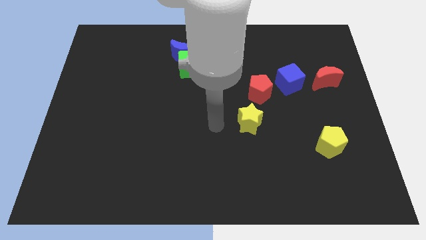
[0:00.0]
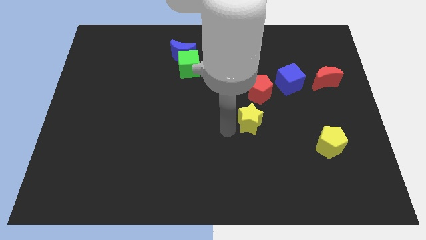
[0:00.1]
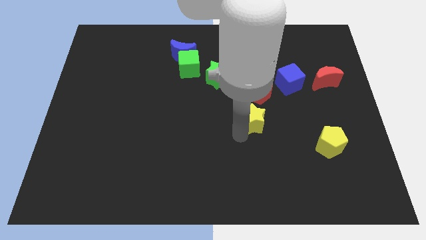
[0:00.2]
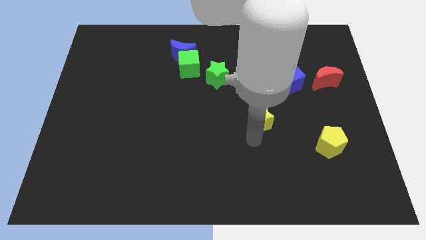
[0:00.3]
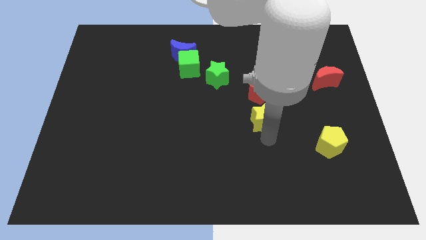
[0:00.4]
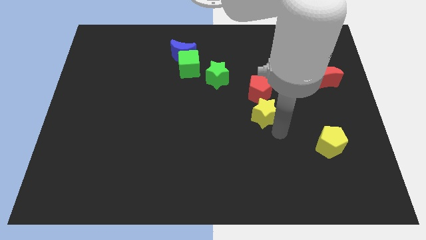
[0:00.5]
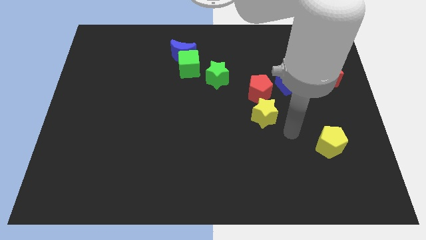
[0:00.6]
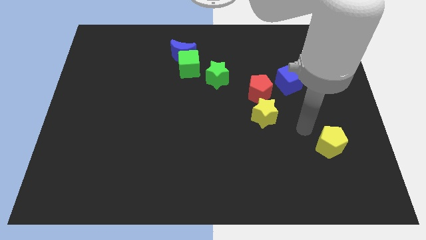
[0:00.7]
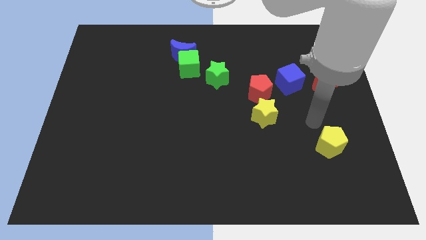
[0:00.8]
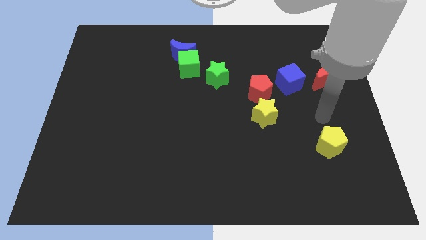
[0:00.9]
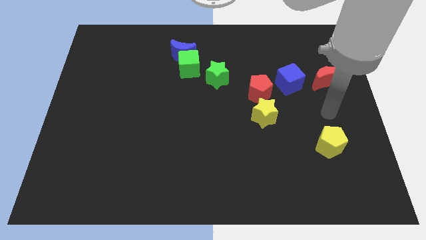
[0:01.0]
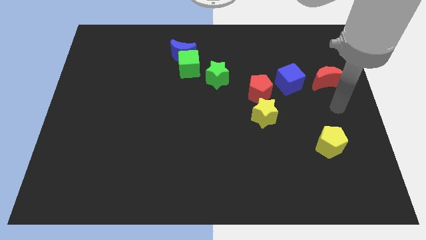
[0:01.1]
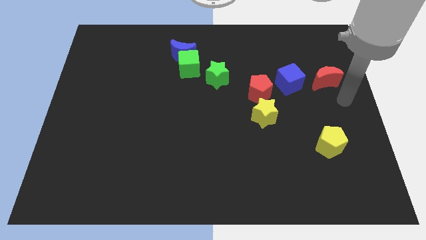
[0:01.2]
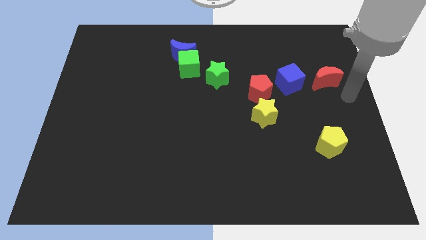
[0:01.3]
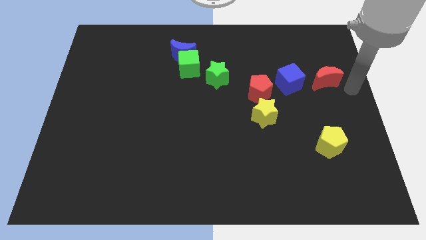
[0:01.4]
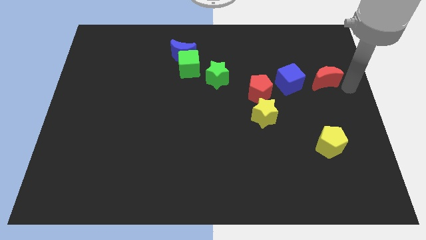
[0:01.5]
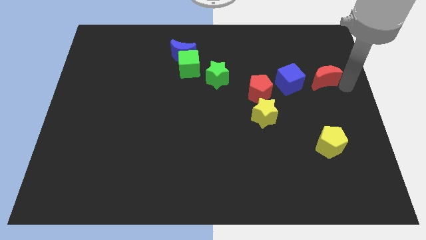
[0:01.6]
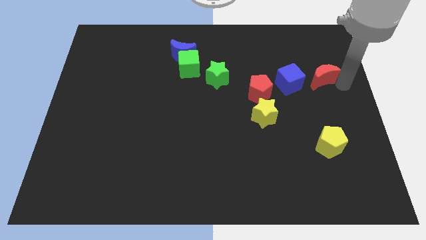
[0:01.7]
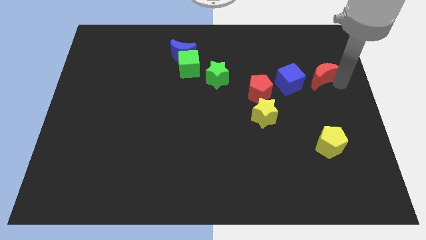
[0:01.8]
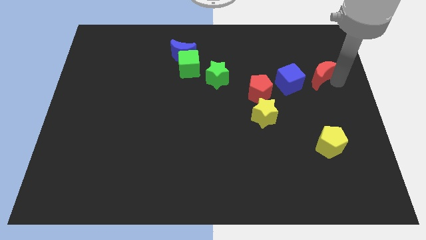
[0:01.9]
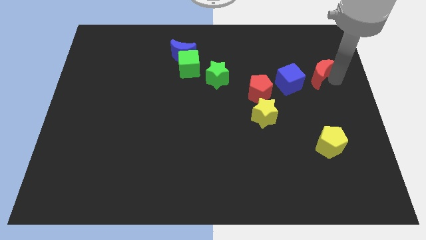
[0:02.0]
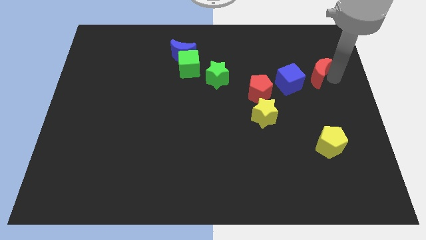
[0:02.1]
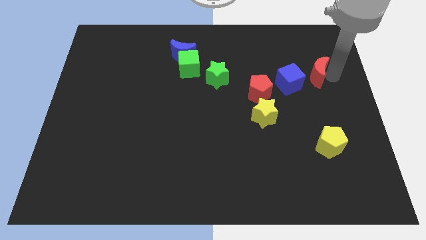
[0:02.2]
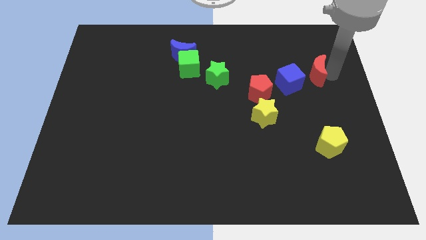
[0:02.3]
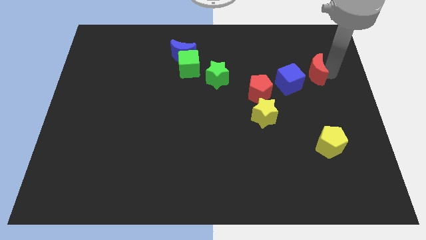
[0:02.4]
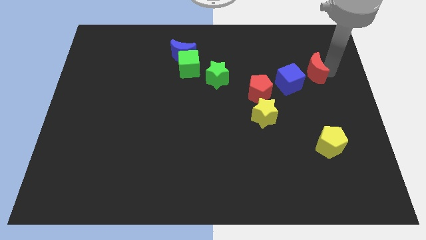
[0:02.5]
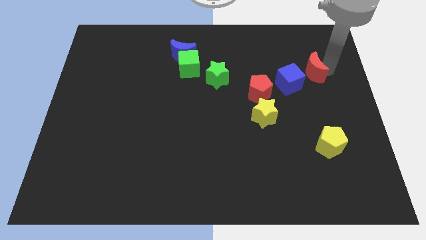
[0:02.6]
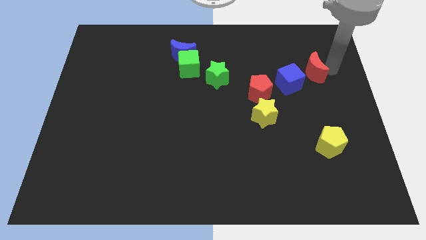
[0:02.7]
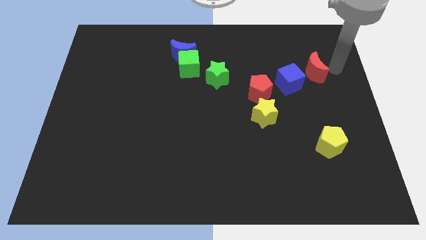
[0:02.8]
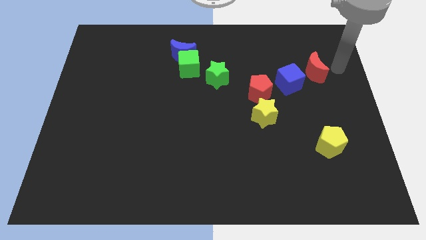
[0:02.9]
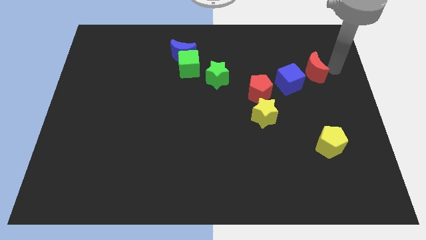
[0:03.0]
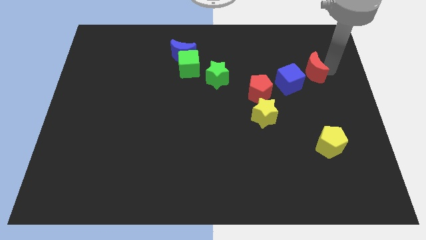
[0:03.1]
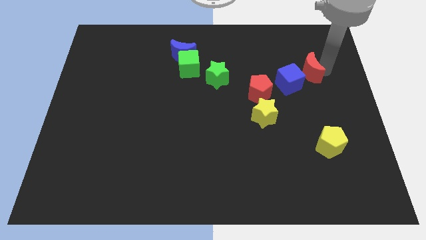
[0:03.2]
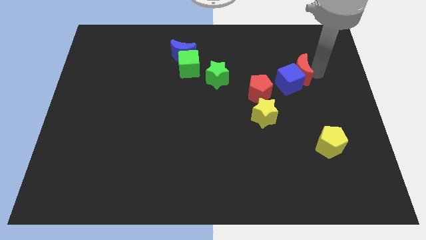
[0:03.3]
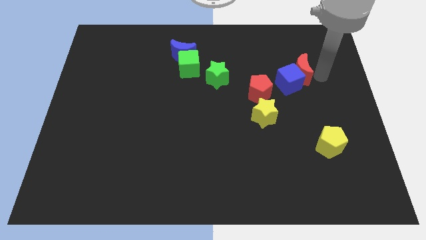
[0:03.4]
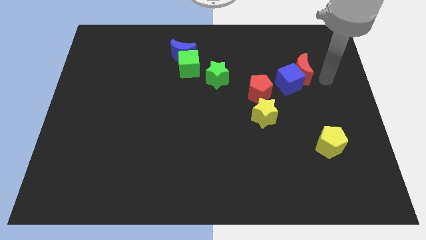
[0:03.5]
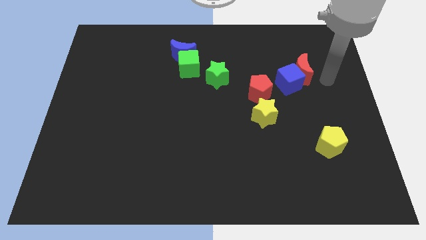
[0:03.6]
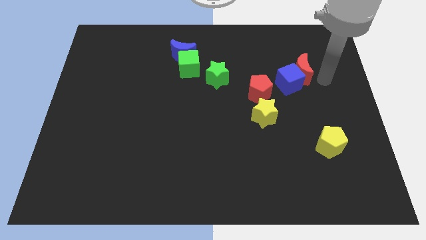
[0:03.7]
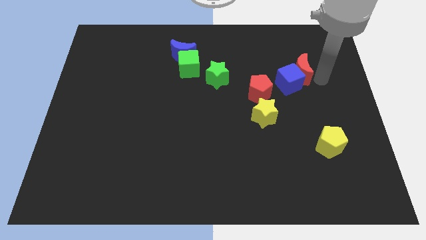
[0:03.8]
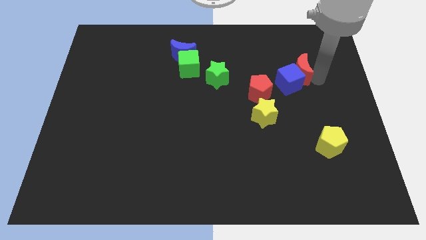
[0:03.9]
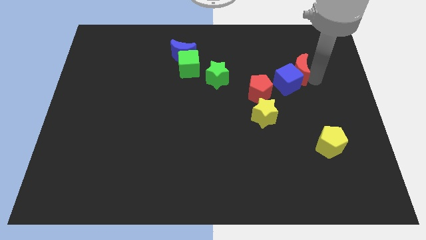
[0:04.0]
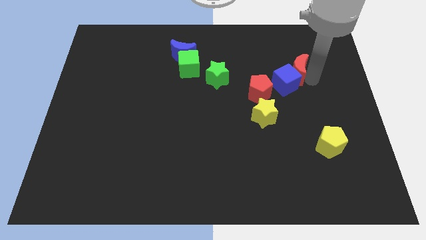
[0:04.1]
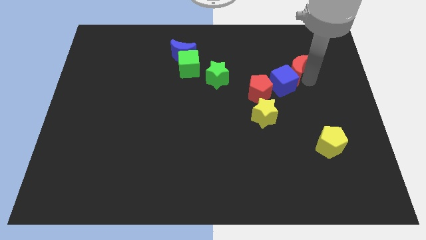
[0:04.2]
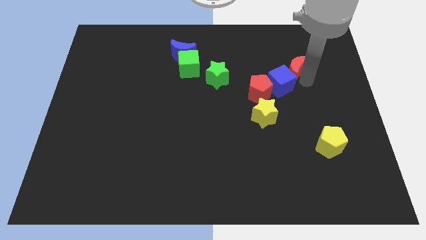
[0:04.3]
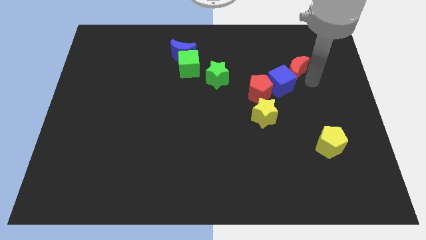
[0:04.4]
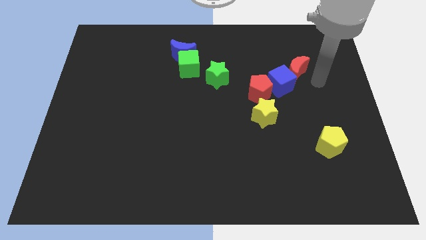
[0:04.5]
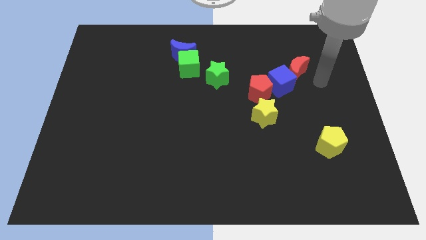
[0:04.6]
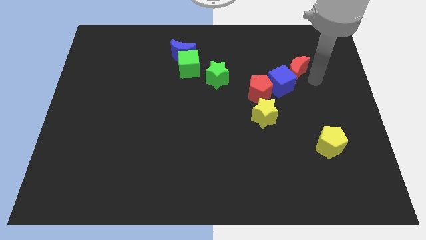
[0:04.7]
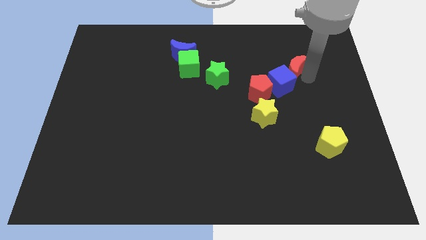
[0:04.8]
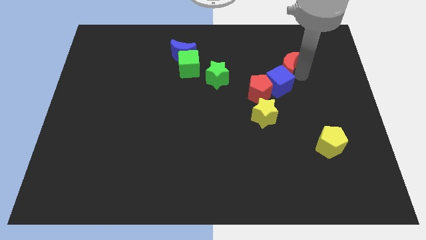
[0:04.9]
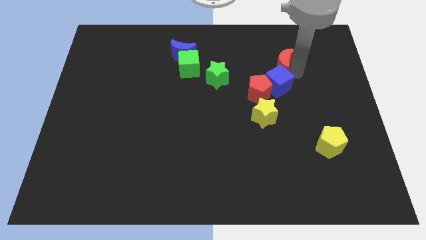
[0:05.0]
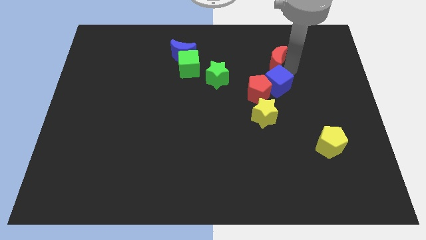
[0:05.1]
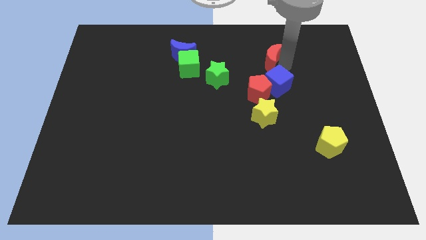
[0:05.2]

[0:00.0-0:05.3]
push the red moon above the red pentagon

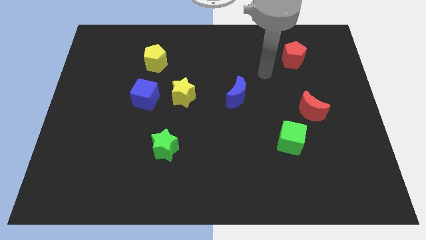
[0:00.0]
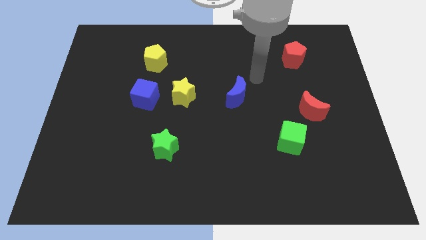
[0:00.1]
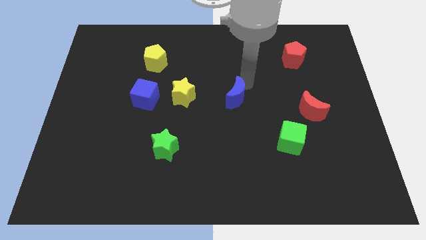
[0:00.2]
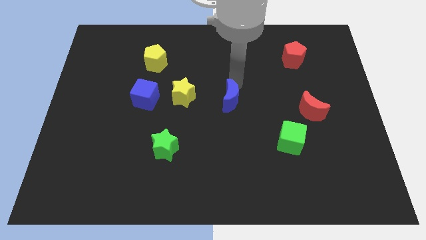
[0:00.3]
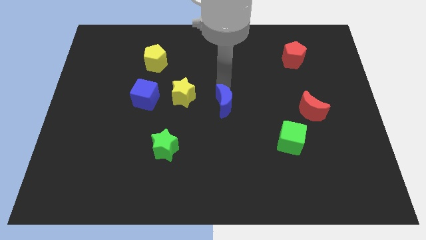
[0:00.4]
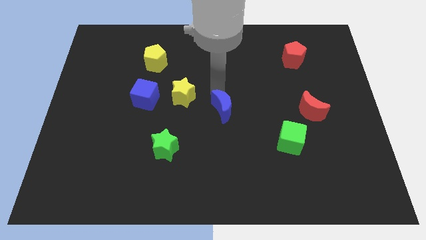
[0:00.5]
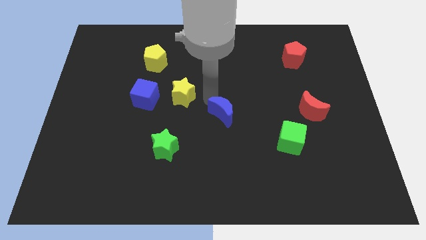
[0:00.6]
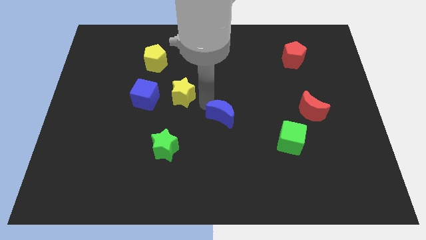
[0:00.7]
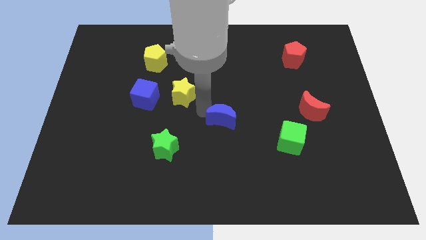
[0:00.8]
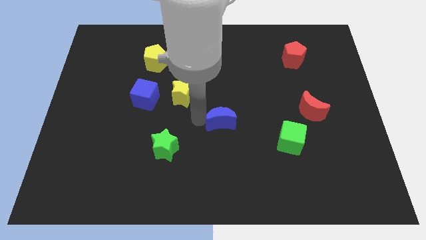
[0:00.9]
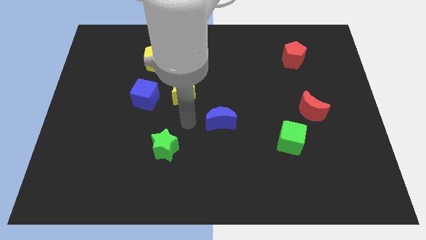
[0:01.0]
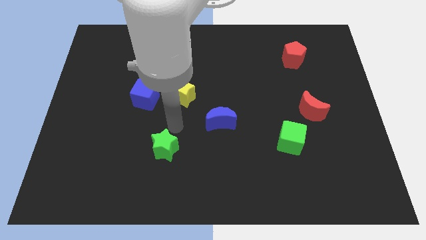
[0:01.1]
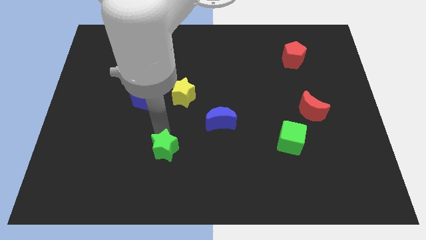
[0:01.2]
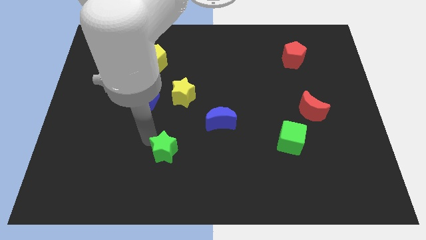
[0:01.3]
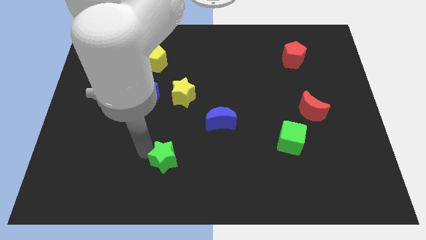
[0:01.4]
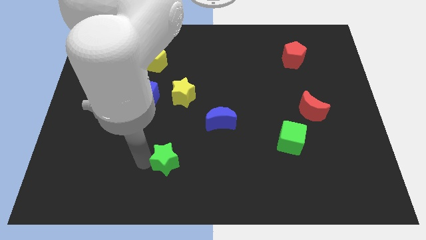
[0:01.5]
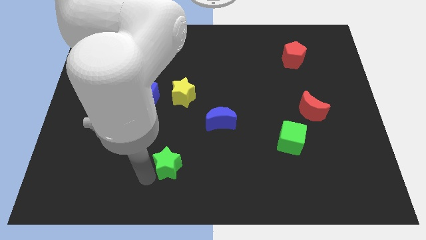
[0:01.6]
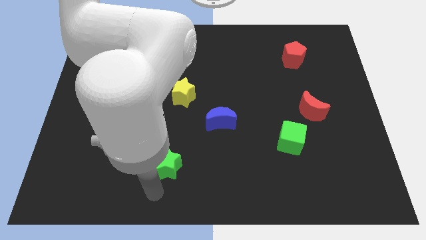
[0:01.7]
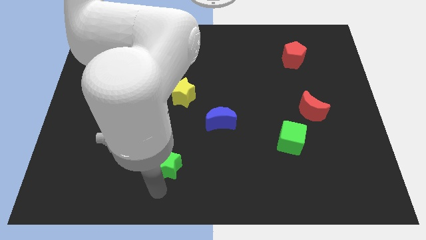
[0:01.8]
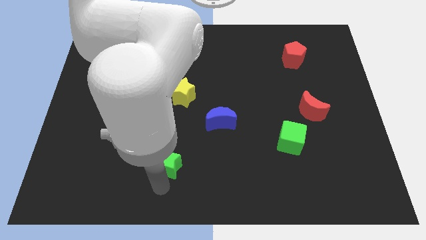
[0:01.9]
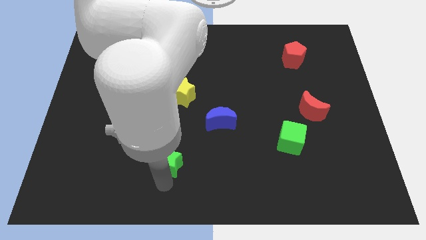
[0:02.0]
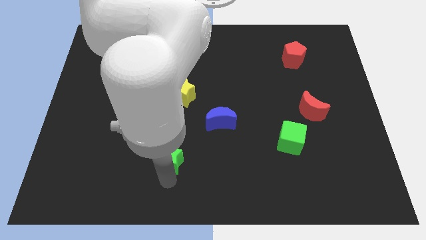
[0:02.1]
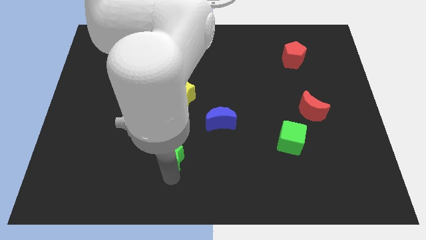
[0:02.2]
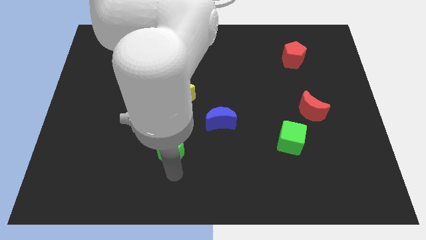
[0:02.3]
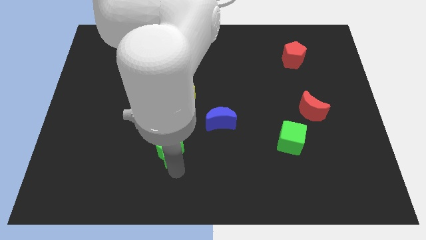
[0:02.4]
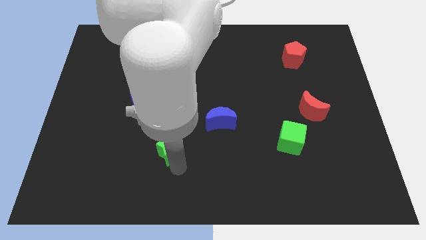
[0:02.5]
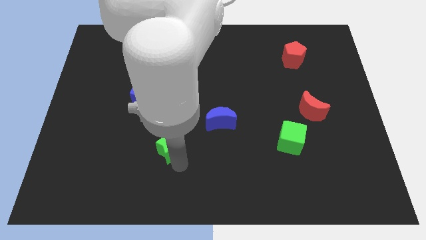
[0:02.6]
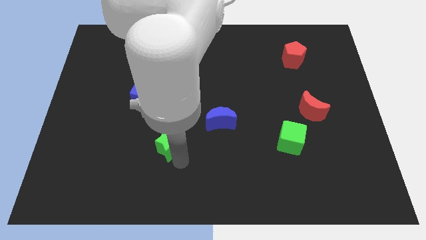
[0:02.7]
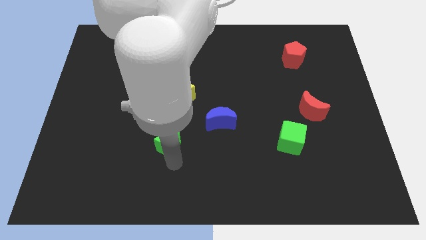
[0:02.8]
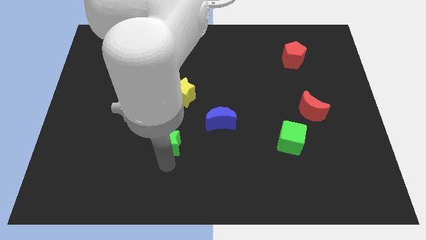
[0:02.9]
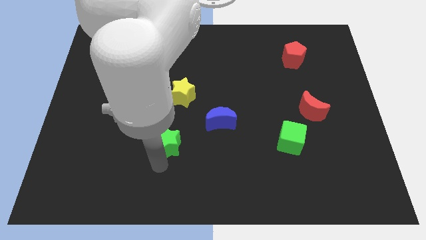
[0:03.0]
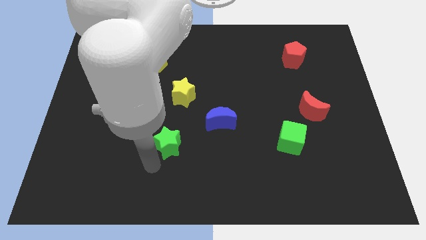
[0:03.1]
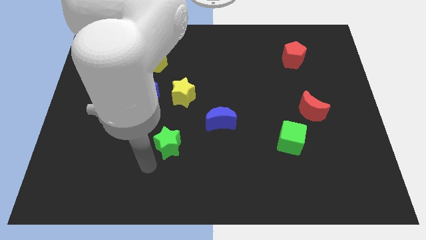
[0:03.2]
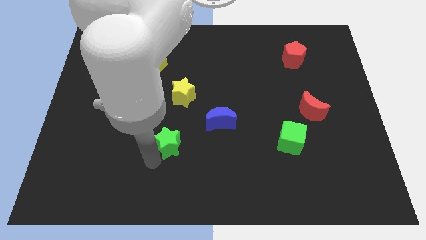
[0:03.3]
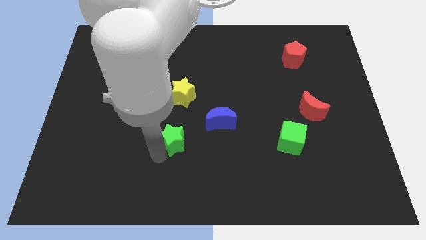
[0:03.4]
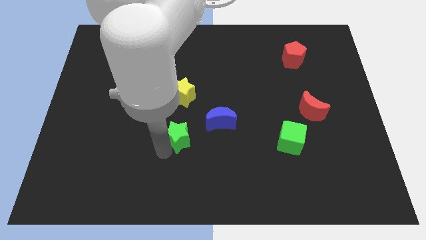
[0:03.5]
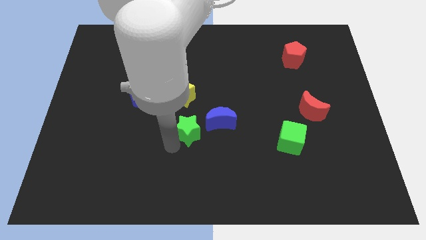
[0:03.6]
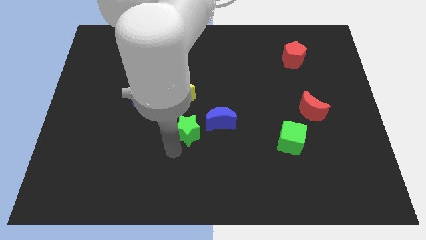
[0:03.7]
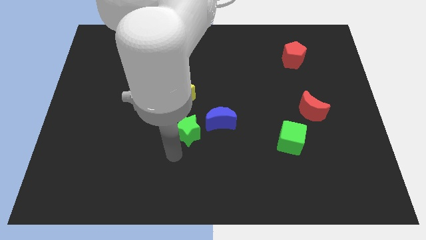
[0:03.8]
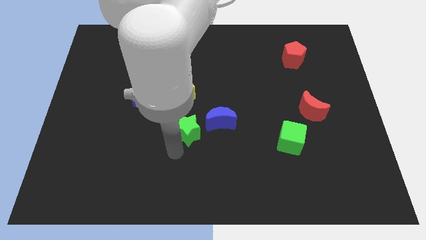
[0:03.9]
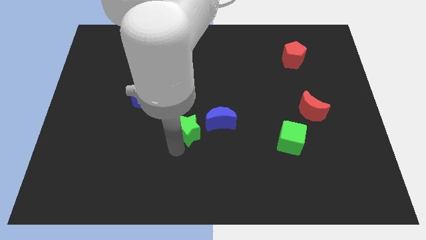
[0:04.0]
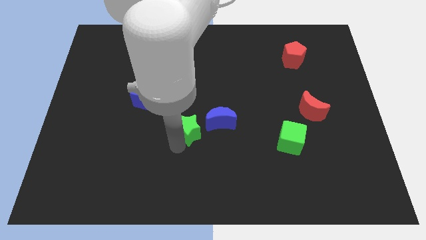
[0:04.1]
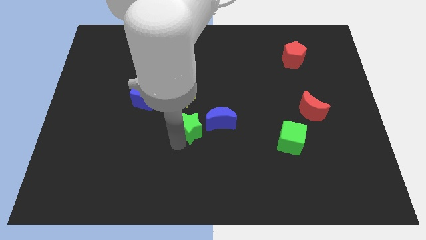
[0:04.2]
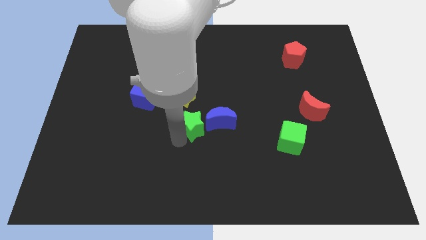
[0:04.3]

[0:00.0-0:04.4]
put the green star to the bottom right of the yellow star
